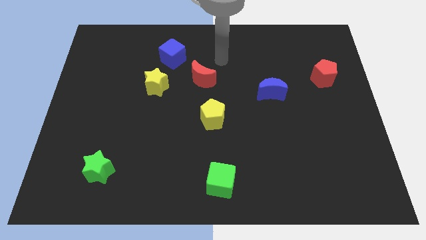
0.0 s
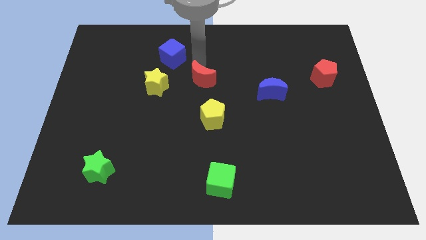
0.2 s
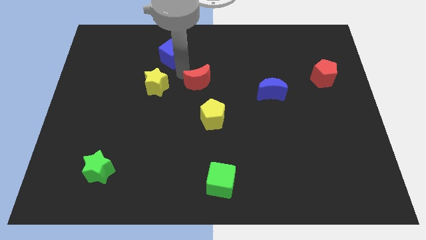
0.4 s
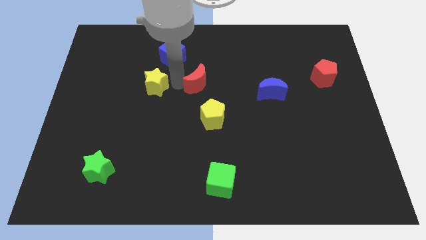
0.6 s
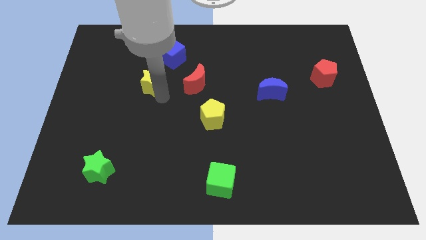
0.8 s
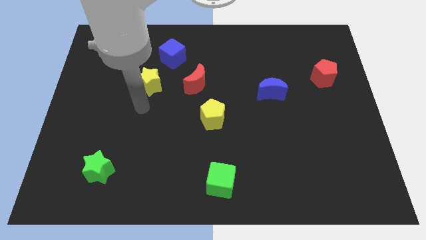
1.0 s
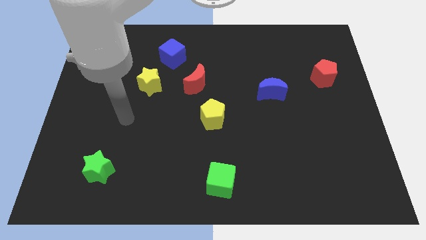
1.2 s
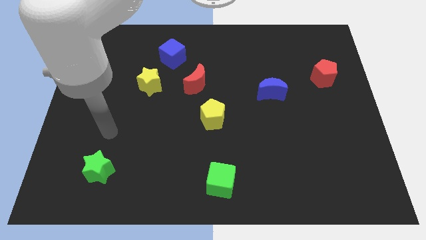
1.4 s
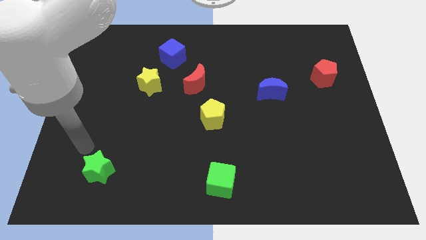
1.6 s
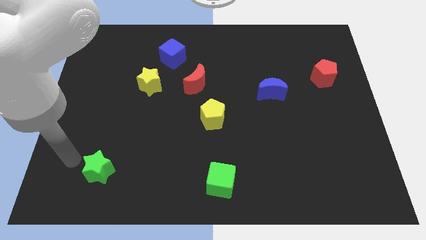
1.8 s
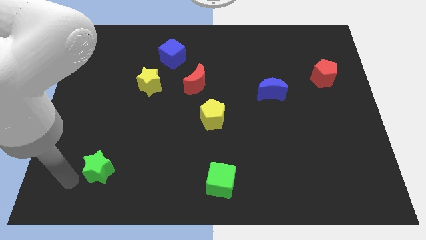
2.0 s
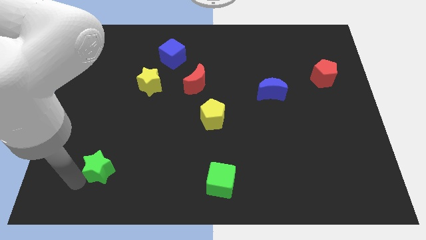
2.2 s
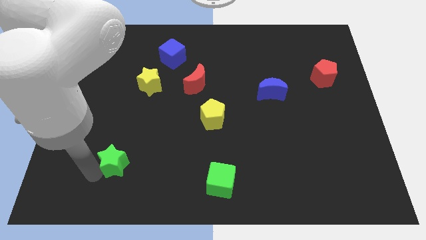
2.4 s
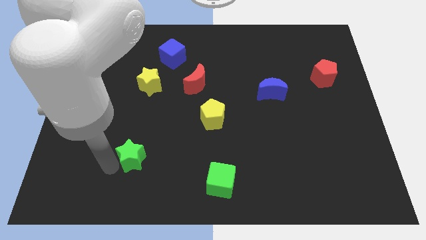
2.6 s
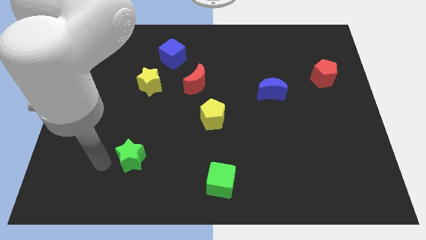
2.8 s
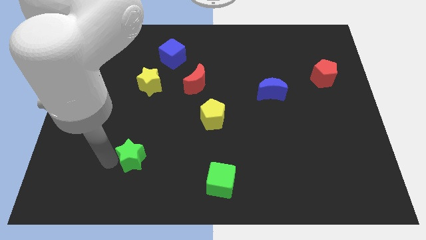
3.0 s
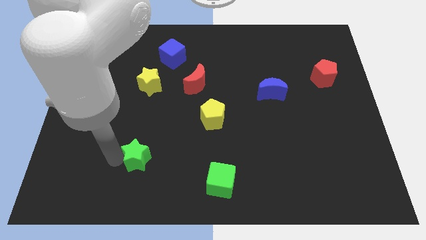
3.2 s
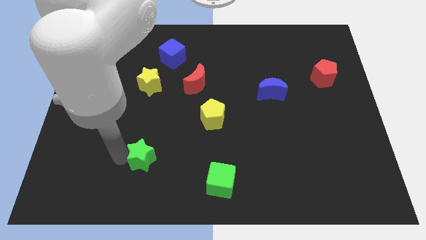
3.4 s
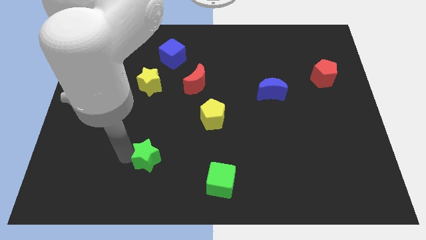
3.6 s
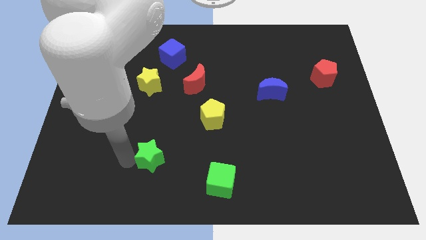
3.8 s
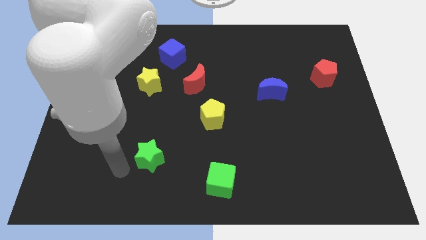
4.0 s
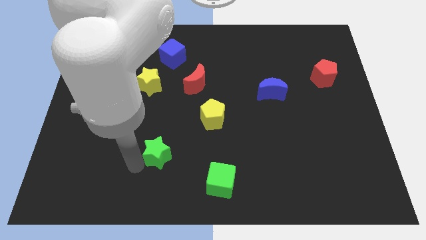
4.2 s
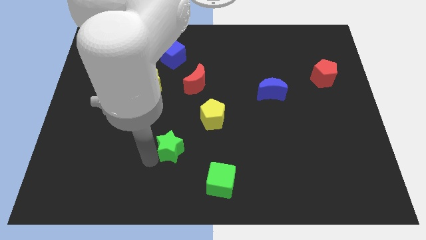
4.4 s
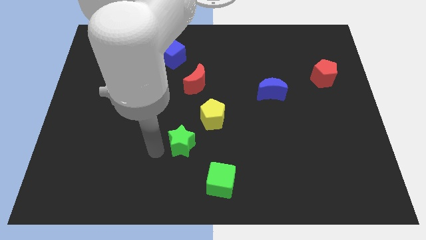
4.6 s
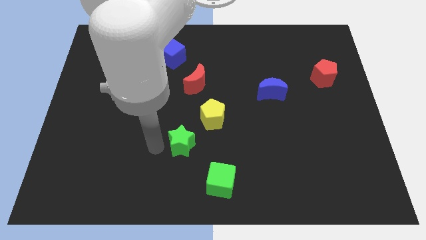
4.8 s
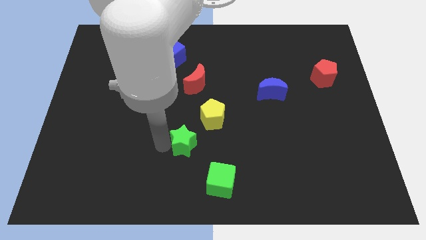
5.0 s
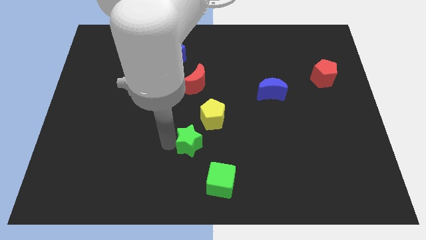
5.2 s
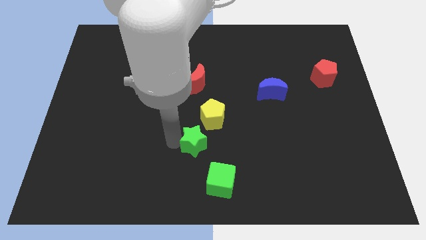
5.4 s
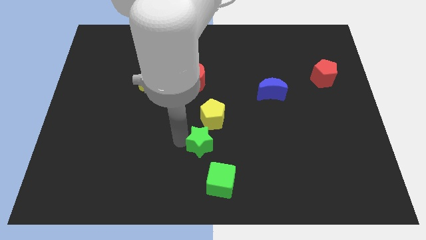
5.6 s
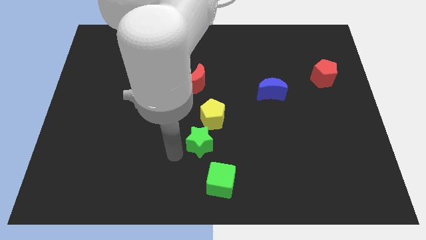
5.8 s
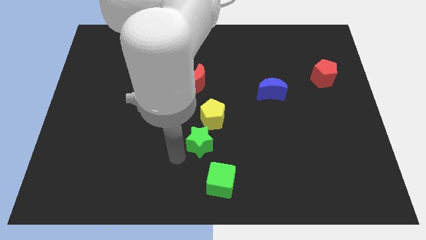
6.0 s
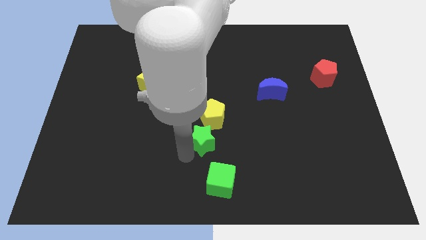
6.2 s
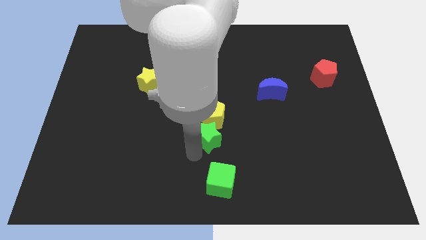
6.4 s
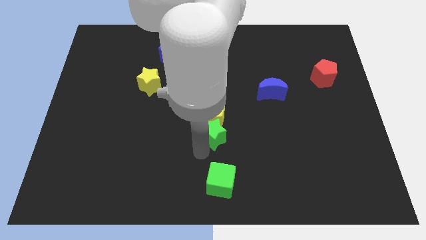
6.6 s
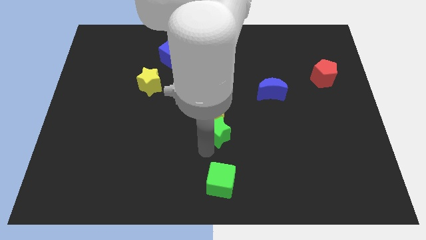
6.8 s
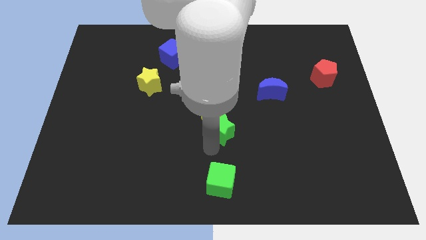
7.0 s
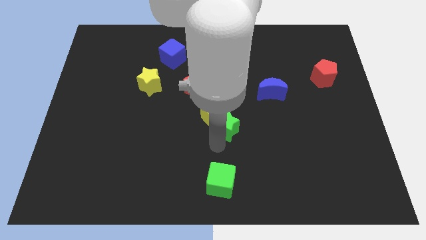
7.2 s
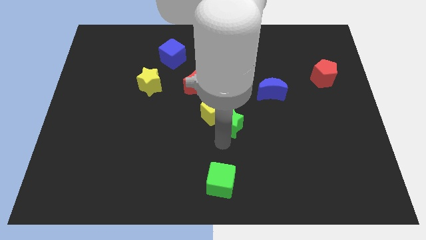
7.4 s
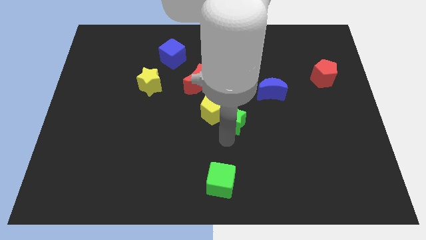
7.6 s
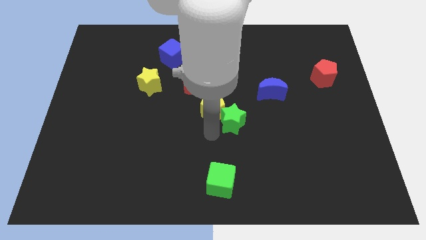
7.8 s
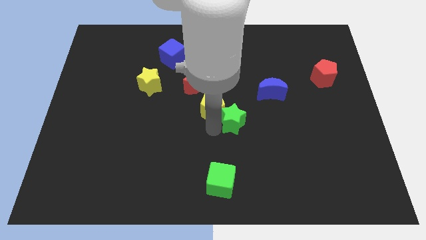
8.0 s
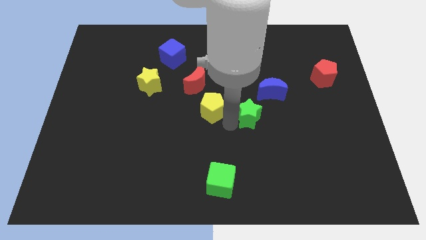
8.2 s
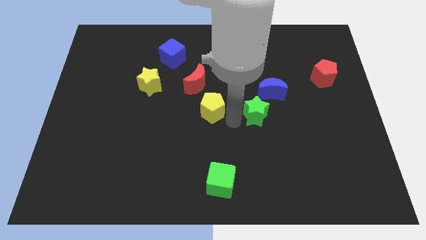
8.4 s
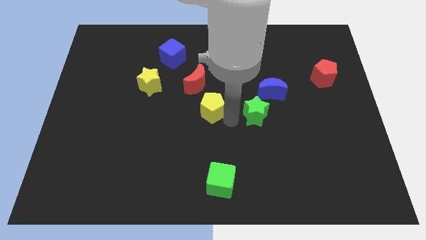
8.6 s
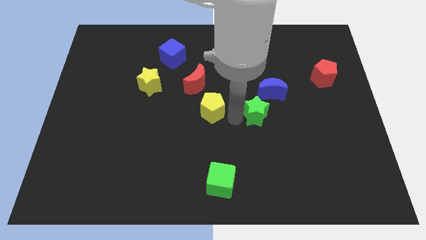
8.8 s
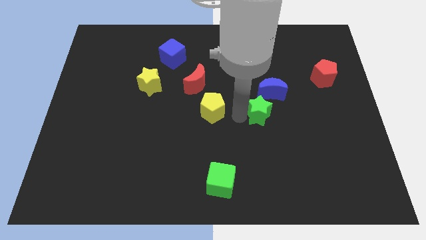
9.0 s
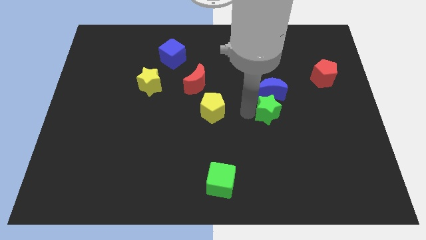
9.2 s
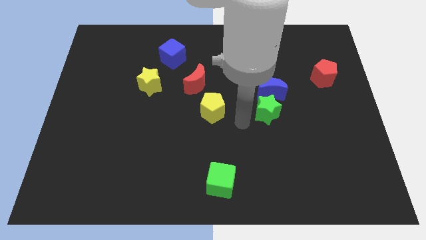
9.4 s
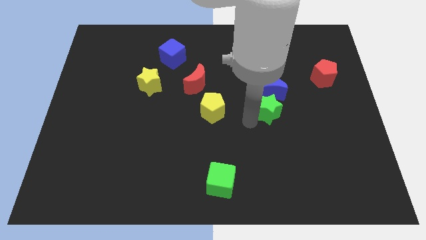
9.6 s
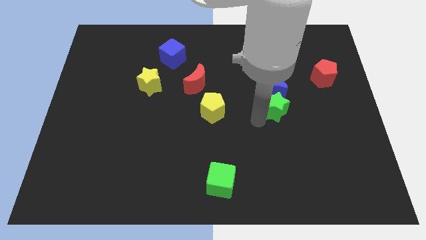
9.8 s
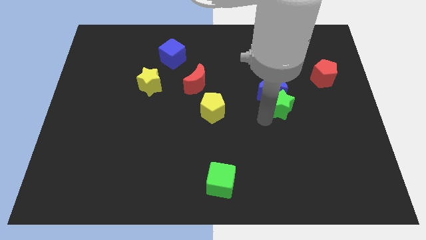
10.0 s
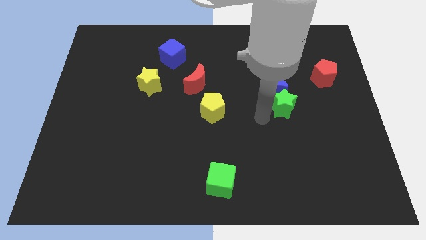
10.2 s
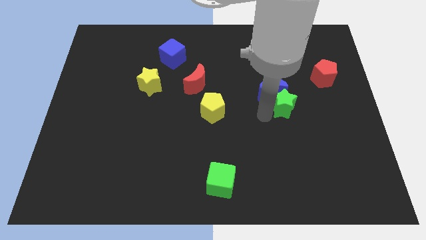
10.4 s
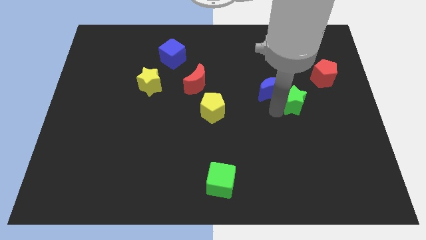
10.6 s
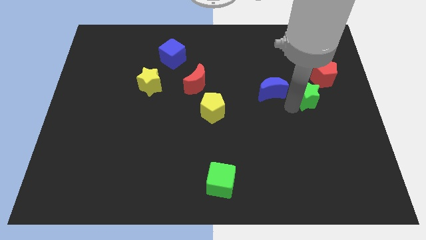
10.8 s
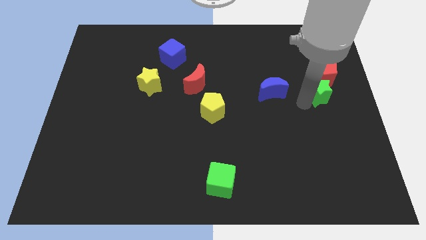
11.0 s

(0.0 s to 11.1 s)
slide the green star to the red pentagon

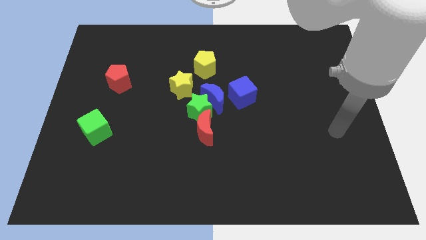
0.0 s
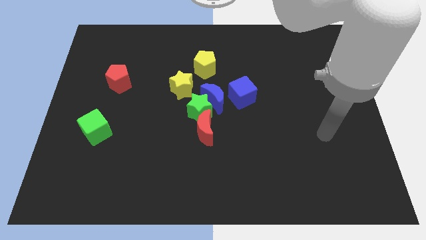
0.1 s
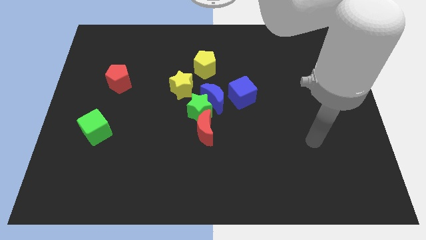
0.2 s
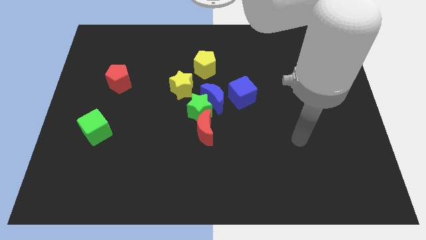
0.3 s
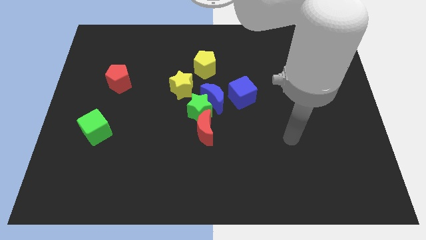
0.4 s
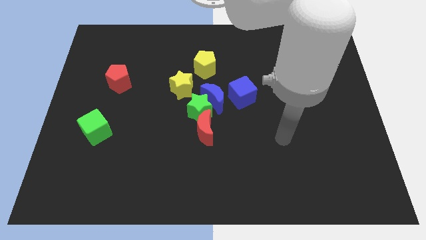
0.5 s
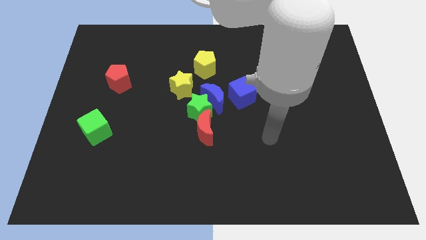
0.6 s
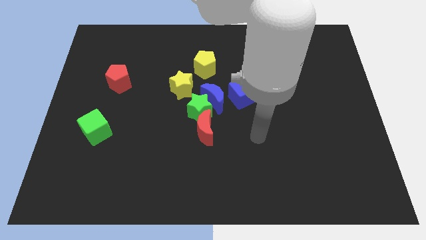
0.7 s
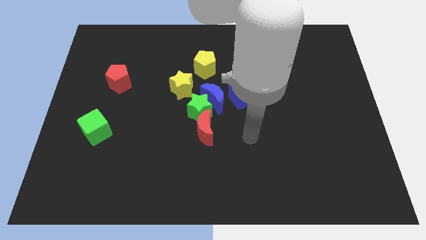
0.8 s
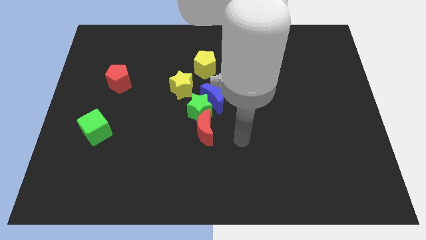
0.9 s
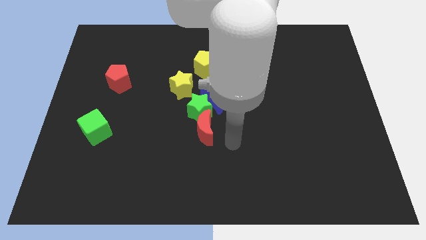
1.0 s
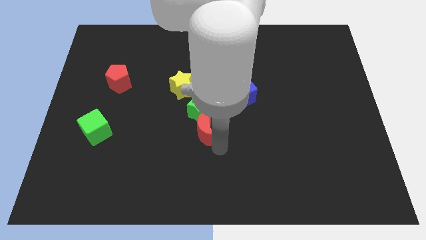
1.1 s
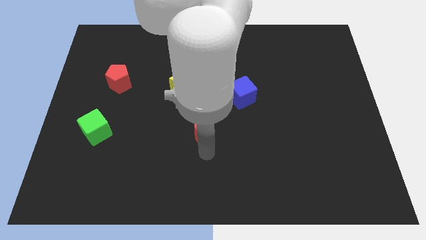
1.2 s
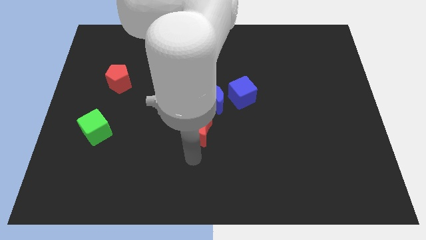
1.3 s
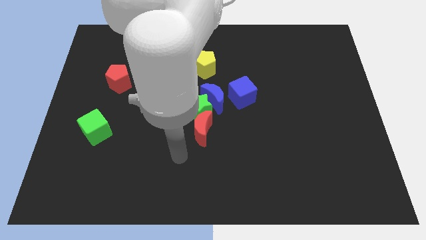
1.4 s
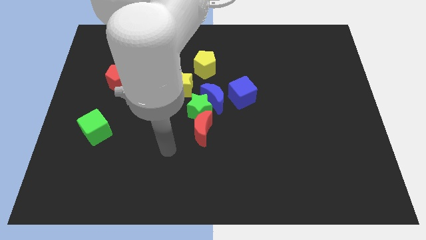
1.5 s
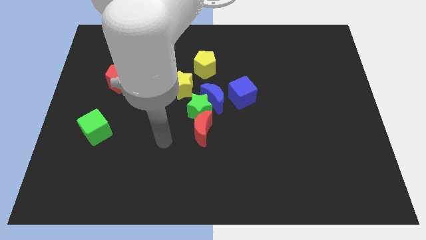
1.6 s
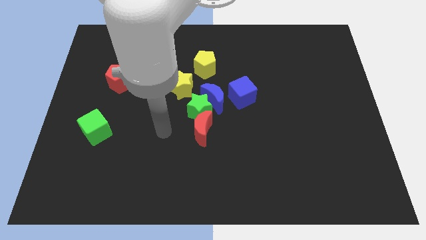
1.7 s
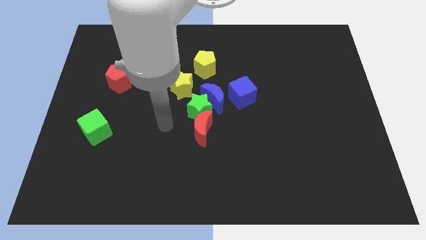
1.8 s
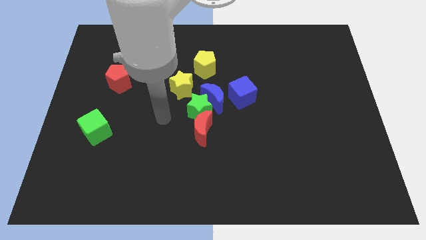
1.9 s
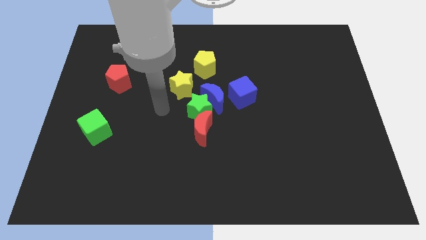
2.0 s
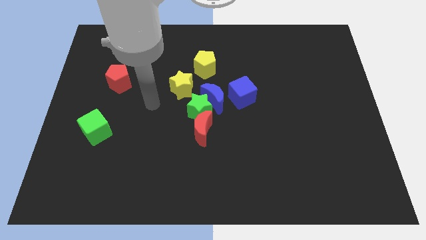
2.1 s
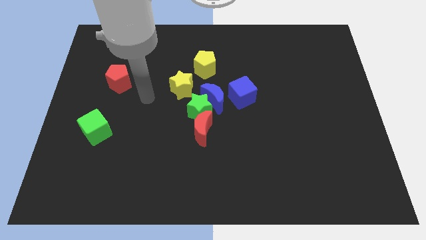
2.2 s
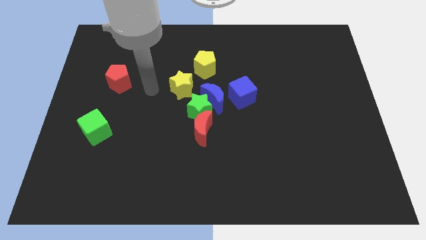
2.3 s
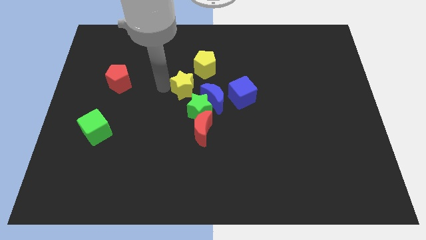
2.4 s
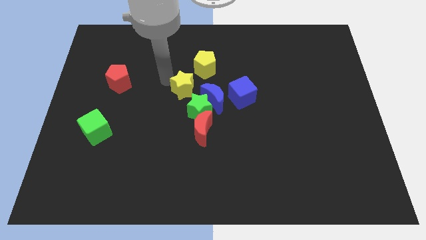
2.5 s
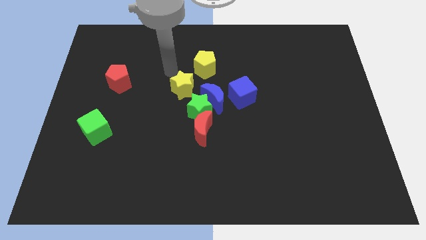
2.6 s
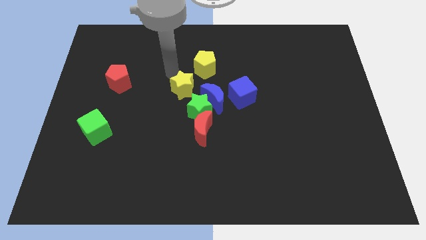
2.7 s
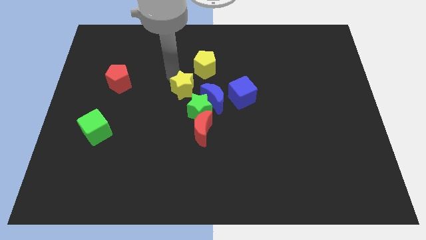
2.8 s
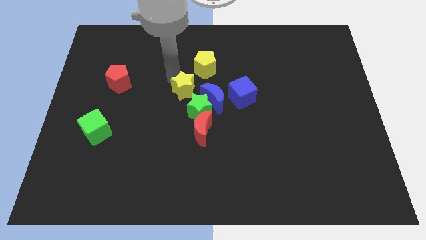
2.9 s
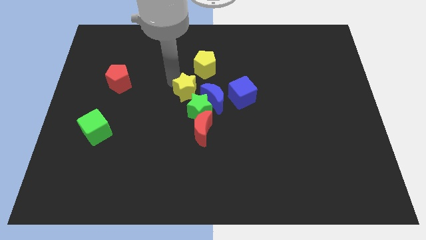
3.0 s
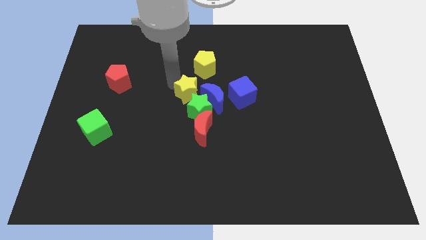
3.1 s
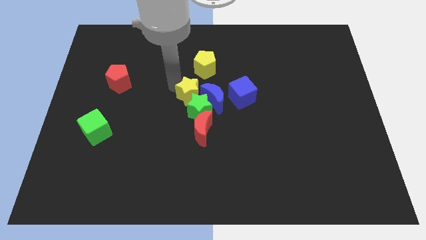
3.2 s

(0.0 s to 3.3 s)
push the yellow star to the green star
